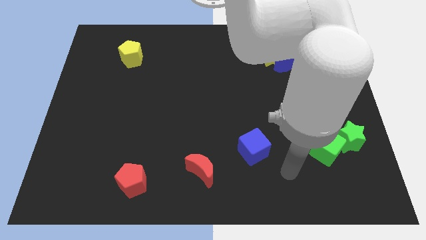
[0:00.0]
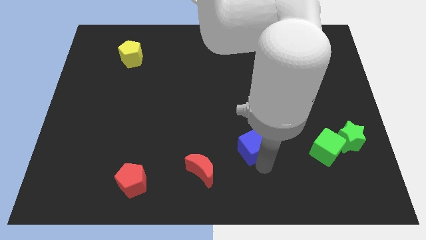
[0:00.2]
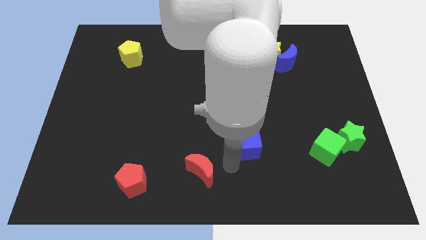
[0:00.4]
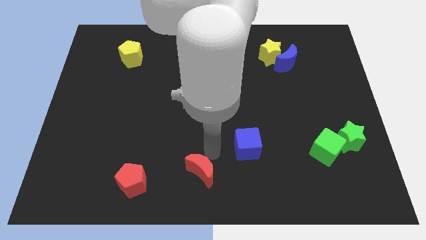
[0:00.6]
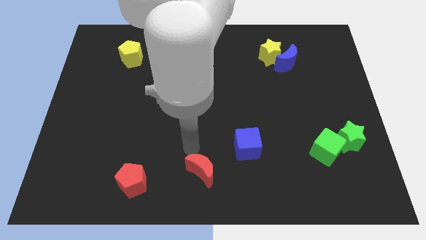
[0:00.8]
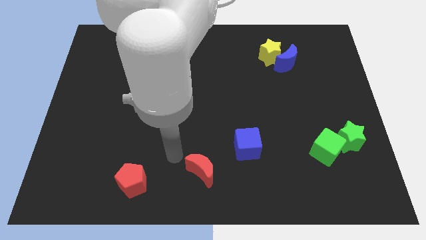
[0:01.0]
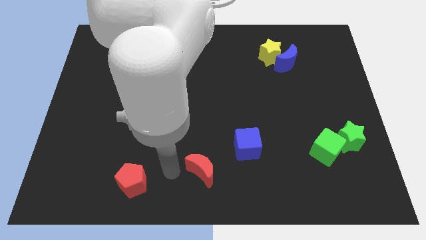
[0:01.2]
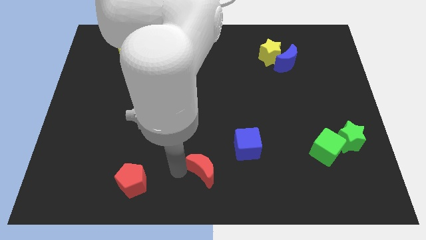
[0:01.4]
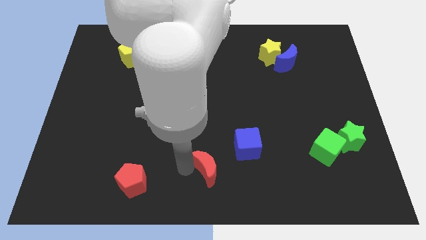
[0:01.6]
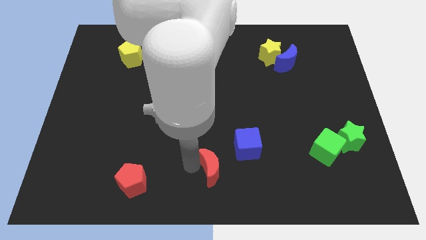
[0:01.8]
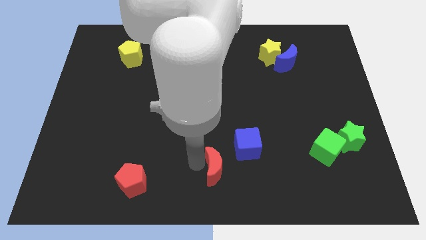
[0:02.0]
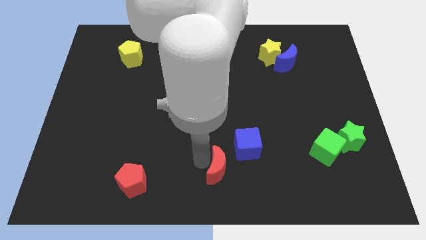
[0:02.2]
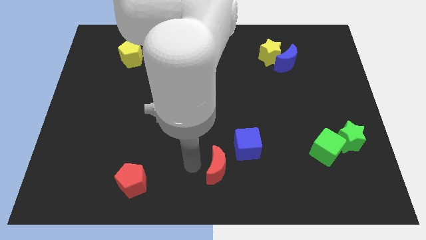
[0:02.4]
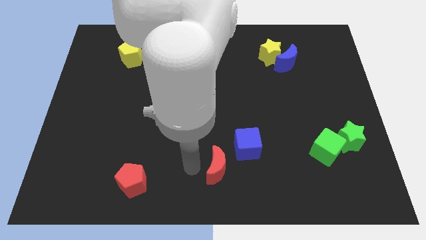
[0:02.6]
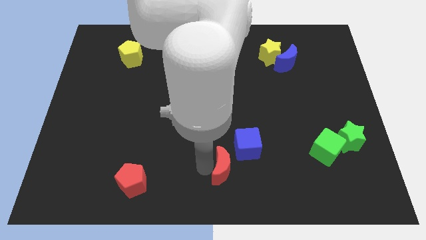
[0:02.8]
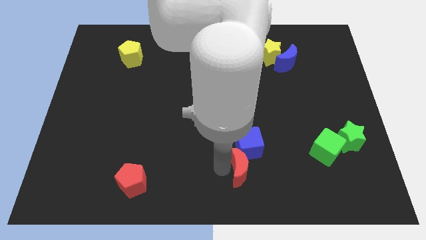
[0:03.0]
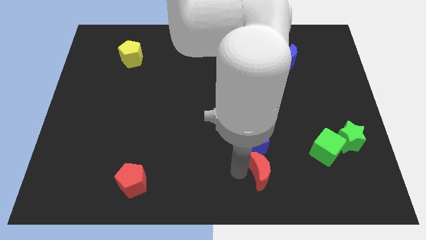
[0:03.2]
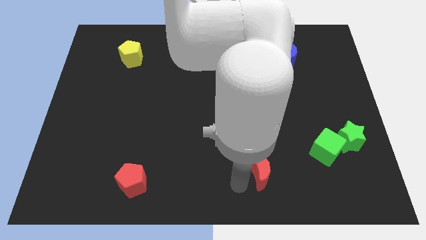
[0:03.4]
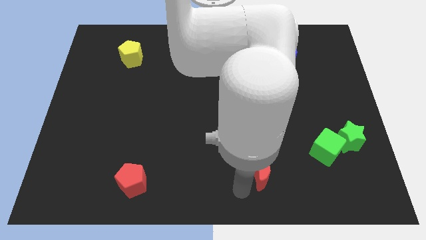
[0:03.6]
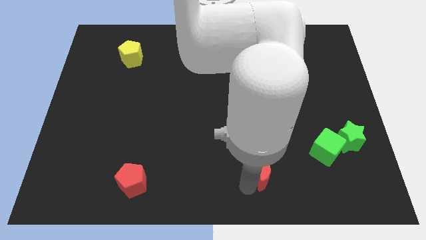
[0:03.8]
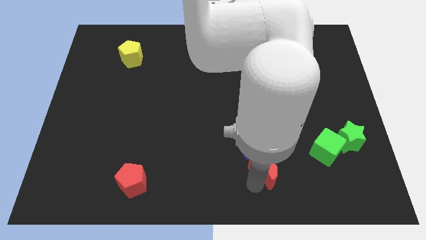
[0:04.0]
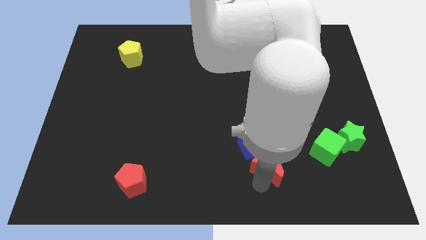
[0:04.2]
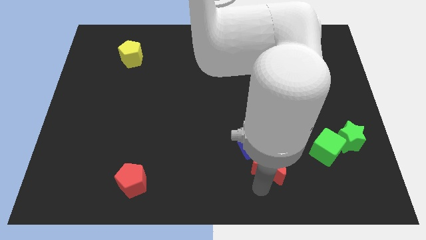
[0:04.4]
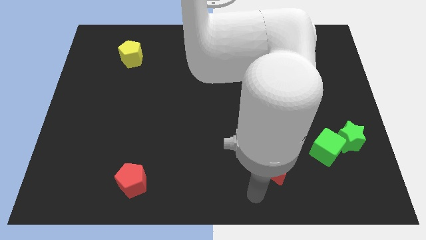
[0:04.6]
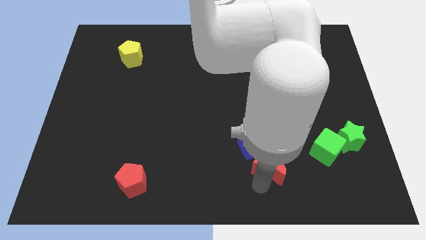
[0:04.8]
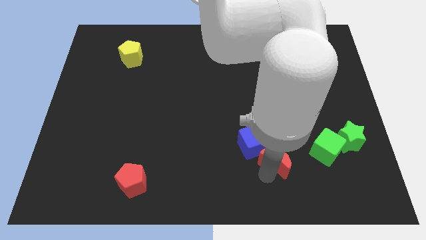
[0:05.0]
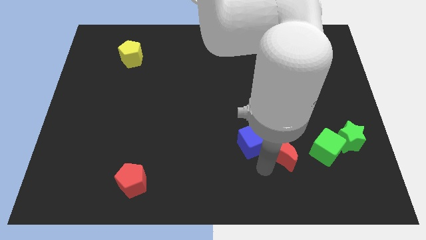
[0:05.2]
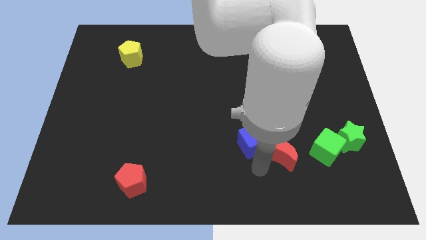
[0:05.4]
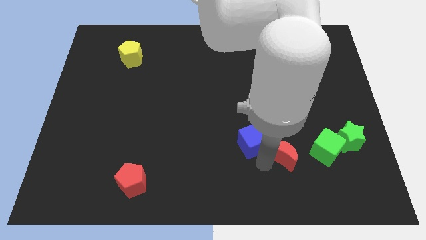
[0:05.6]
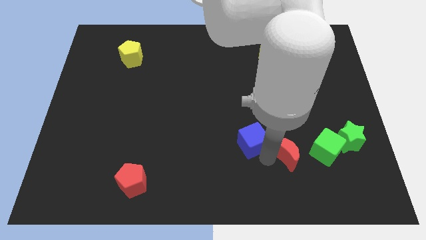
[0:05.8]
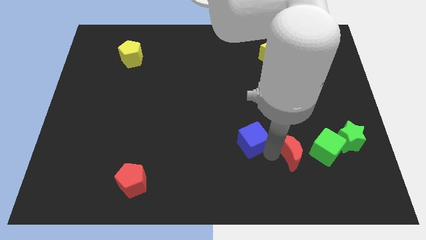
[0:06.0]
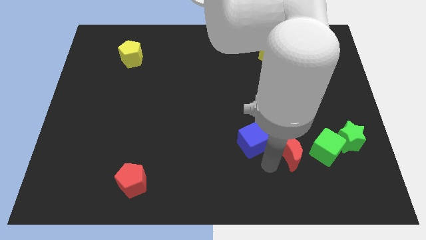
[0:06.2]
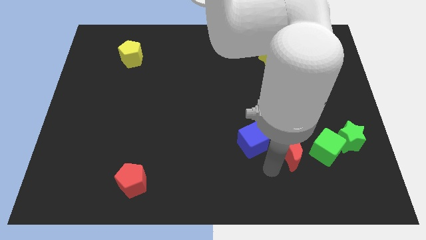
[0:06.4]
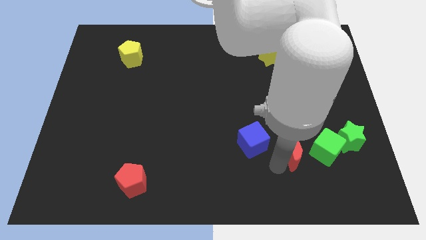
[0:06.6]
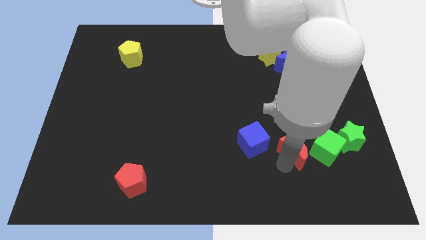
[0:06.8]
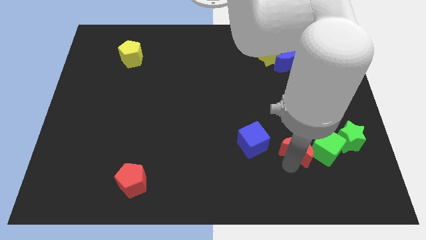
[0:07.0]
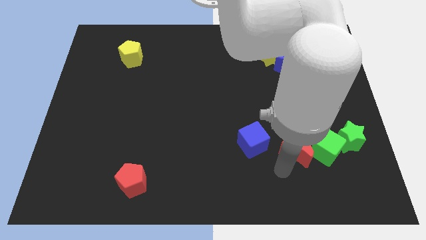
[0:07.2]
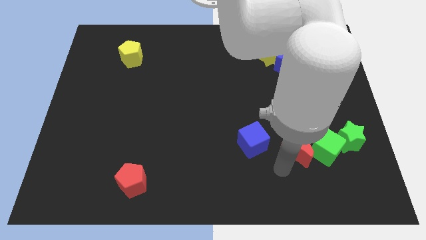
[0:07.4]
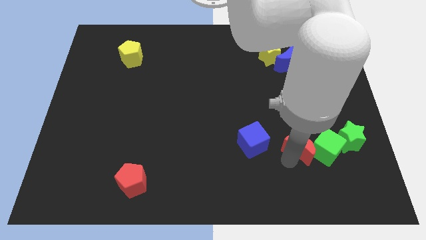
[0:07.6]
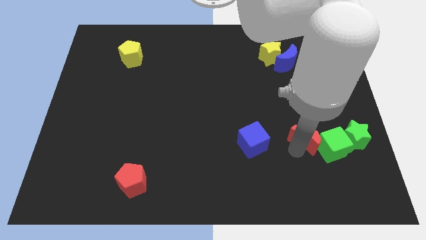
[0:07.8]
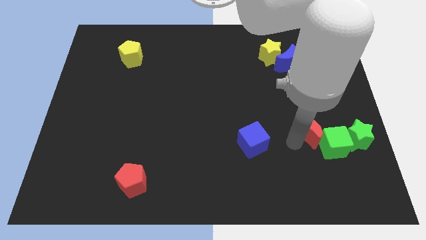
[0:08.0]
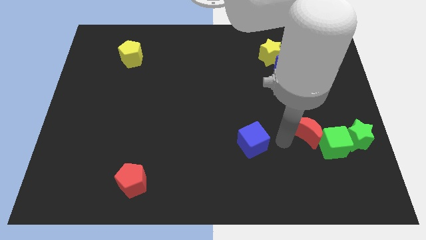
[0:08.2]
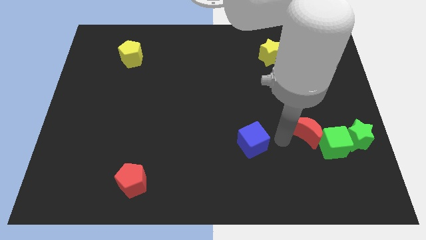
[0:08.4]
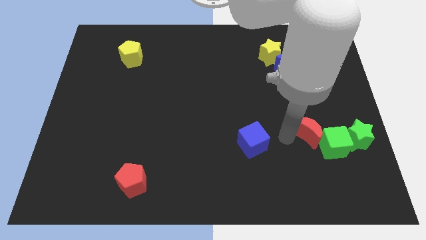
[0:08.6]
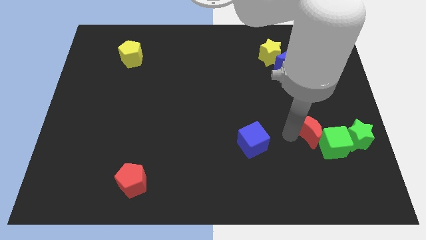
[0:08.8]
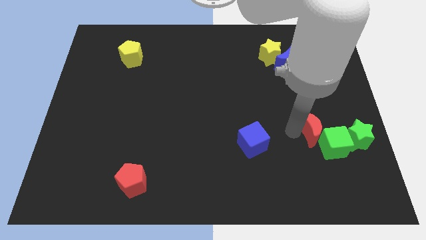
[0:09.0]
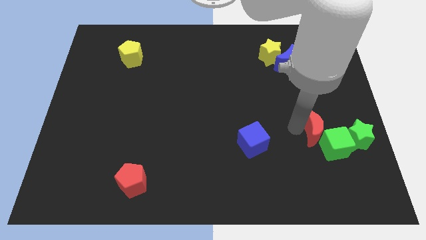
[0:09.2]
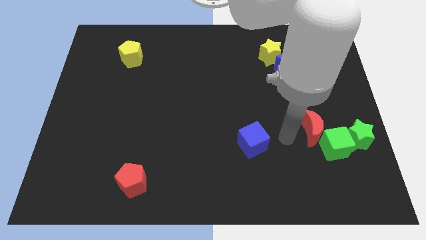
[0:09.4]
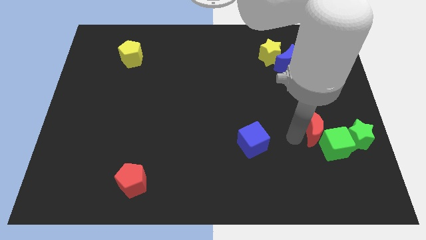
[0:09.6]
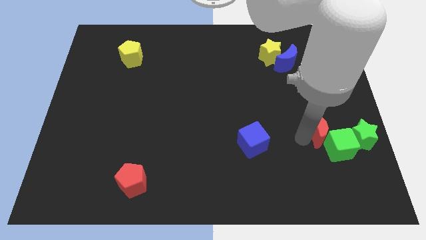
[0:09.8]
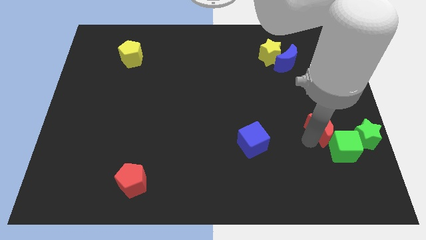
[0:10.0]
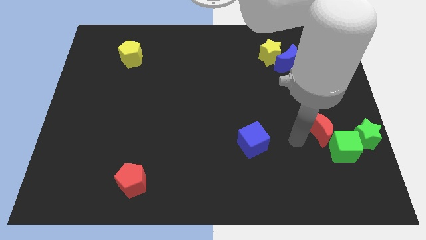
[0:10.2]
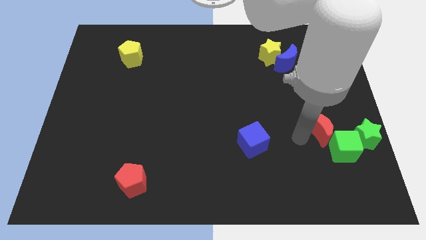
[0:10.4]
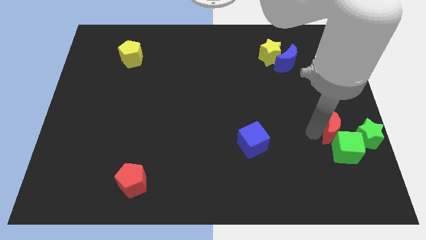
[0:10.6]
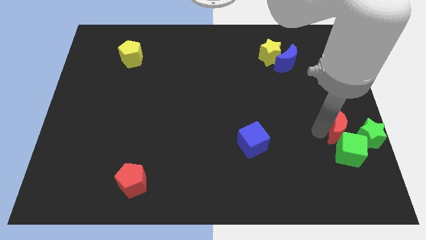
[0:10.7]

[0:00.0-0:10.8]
push the red moon to the center right

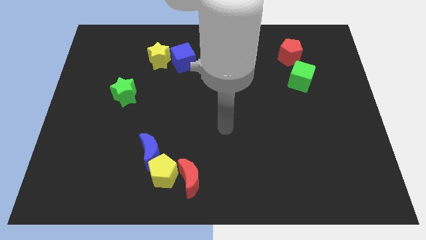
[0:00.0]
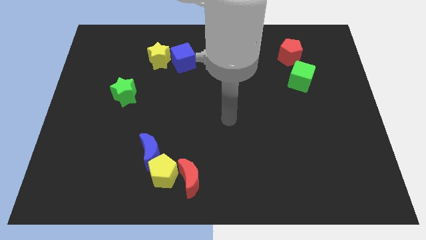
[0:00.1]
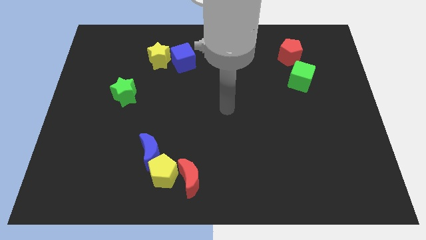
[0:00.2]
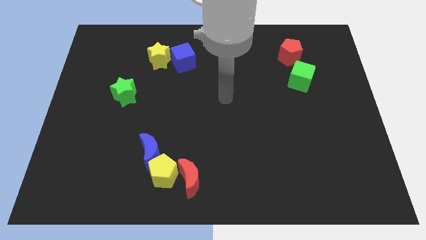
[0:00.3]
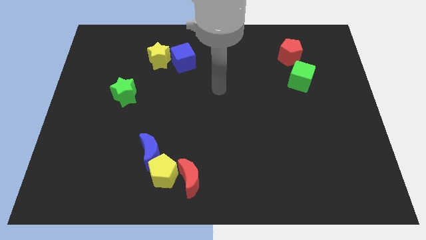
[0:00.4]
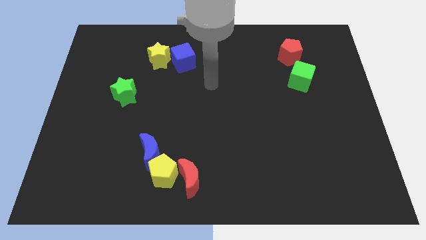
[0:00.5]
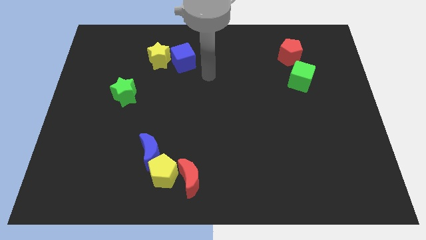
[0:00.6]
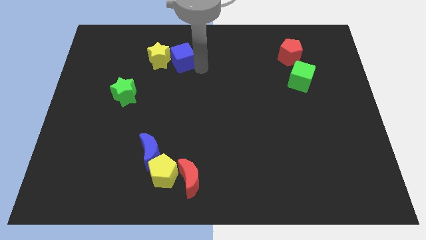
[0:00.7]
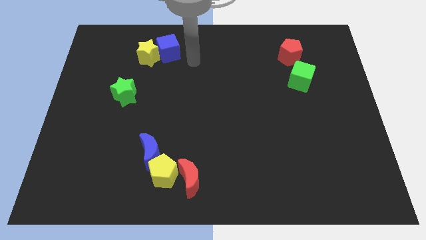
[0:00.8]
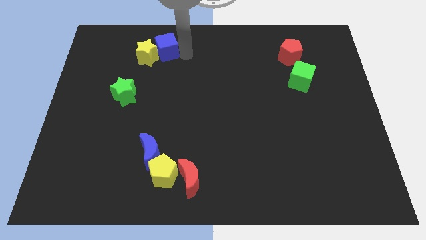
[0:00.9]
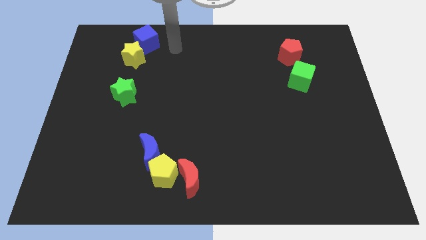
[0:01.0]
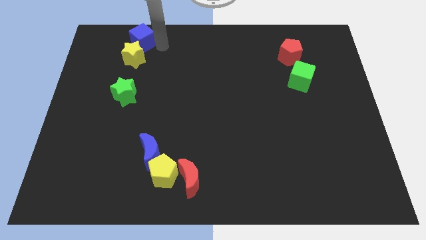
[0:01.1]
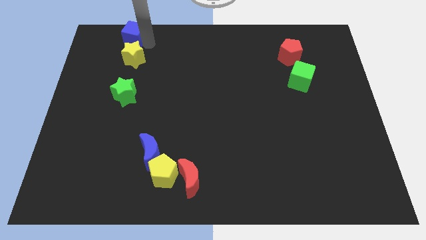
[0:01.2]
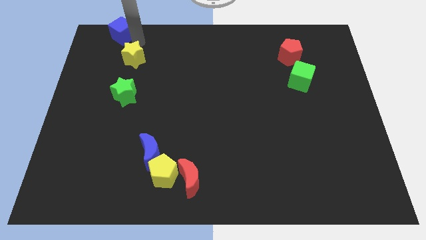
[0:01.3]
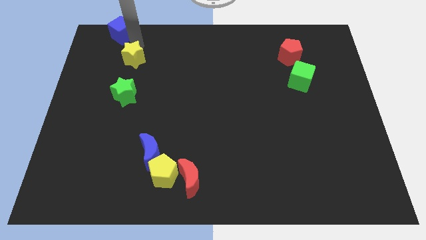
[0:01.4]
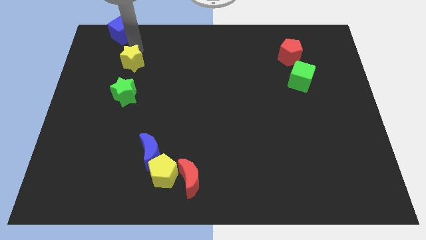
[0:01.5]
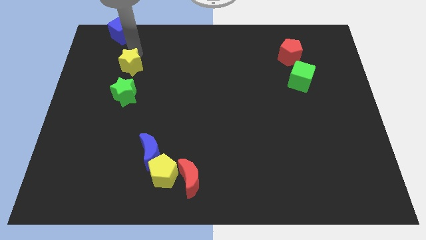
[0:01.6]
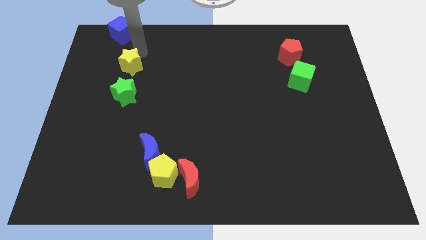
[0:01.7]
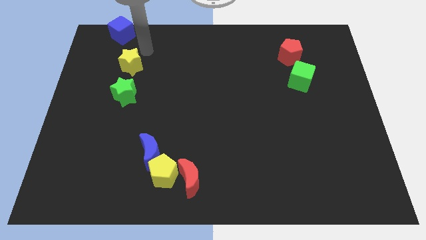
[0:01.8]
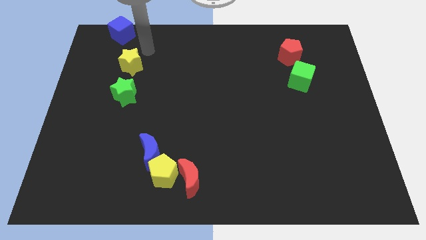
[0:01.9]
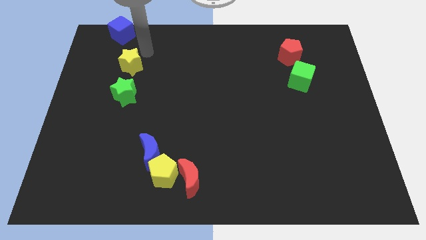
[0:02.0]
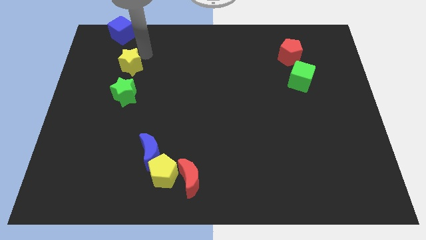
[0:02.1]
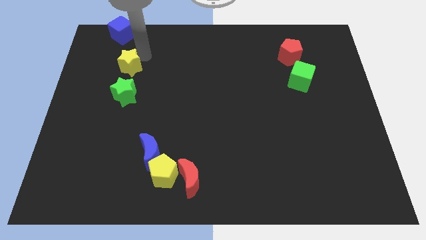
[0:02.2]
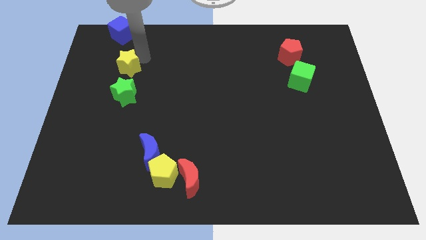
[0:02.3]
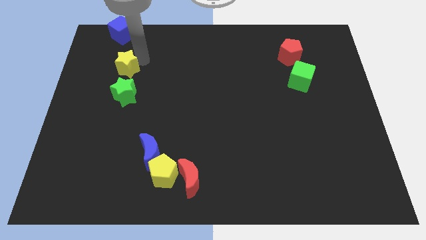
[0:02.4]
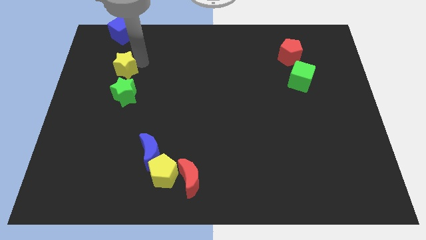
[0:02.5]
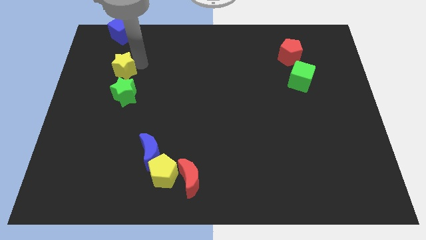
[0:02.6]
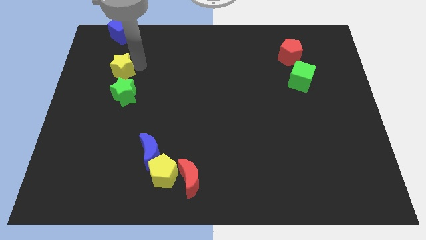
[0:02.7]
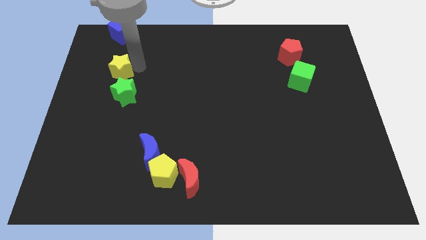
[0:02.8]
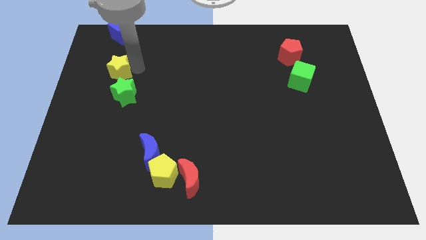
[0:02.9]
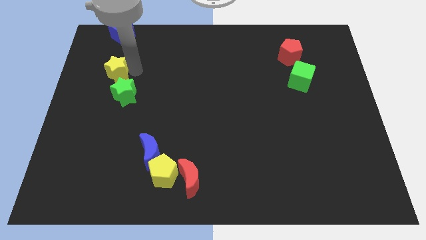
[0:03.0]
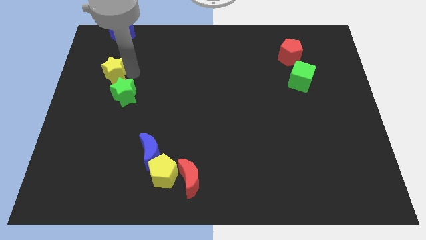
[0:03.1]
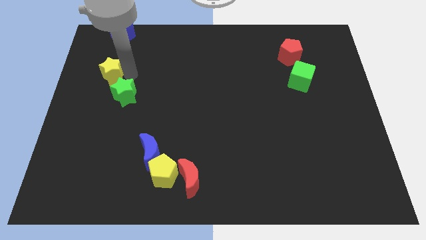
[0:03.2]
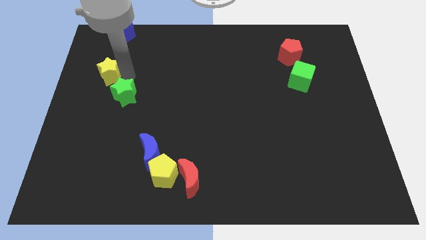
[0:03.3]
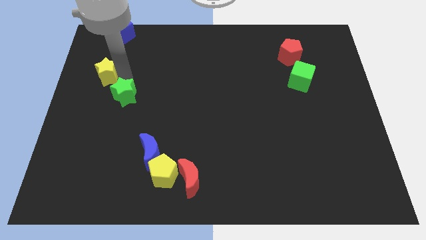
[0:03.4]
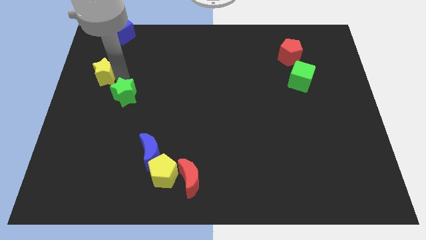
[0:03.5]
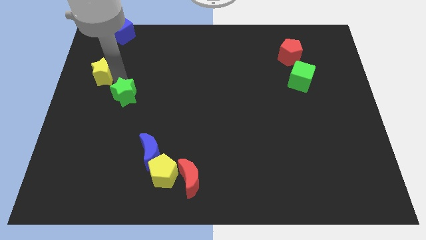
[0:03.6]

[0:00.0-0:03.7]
slide the yellow star to the left side of the board
